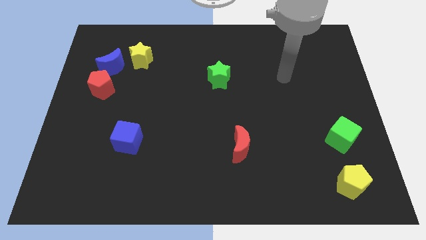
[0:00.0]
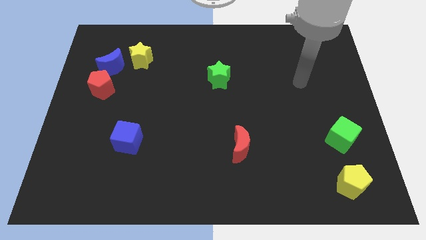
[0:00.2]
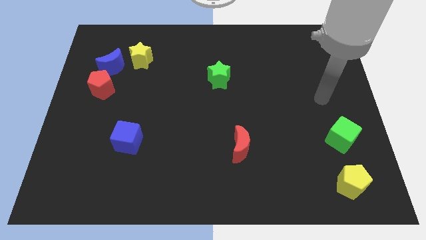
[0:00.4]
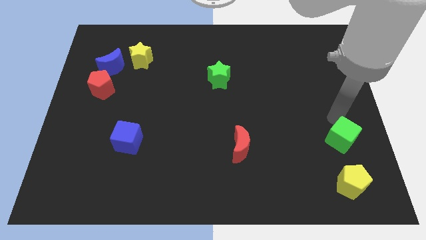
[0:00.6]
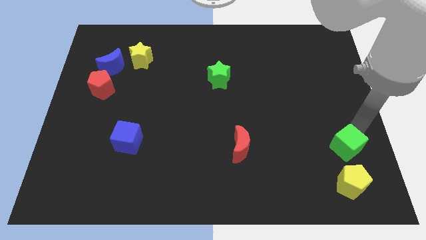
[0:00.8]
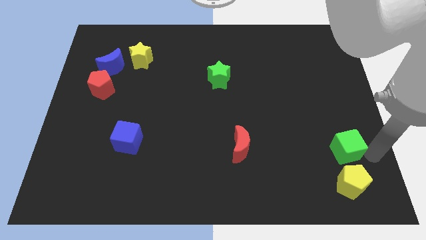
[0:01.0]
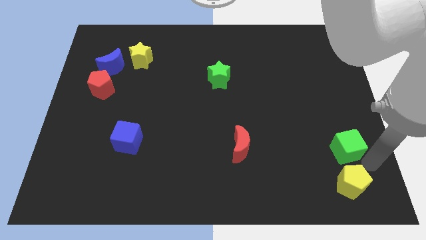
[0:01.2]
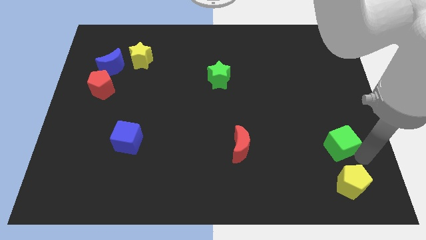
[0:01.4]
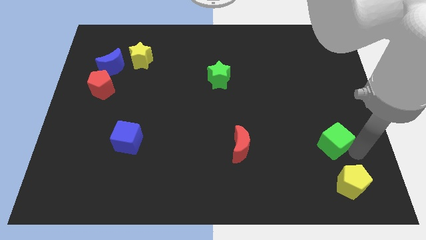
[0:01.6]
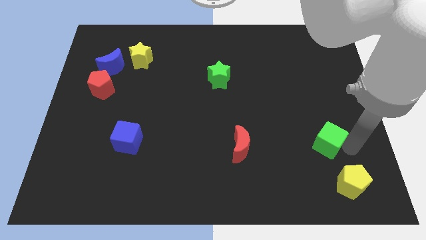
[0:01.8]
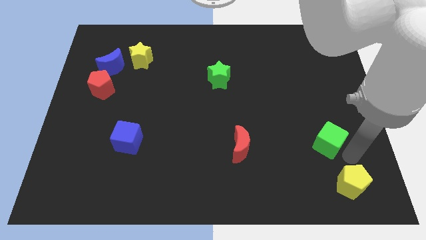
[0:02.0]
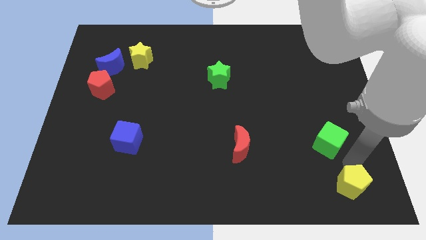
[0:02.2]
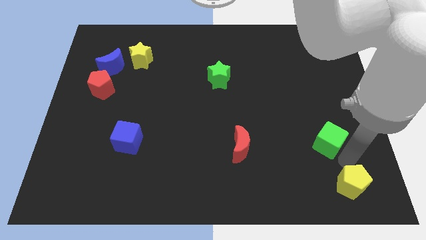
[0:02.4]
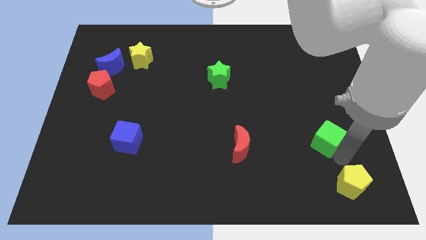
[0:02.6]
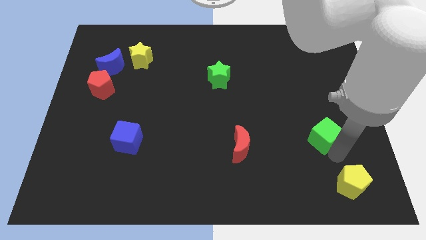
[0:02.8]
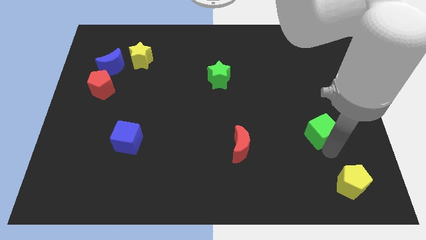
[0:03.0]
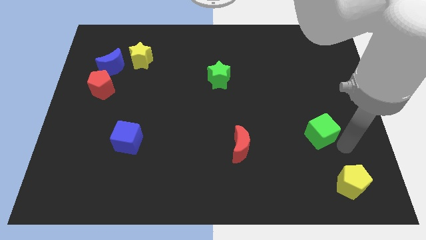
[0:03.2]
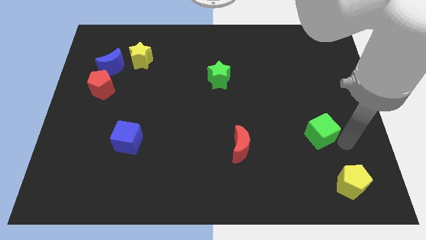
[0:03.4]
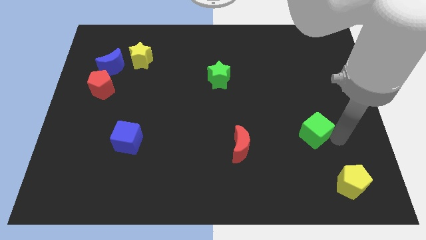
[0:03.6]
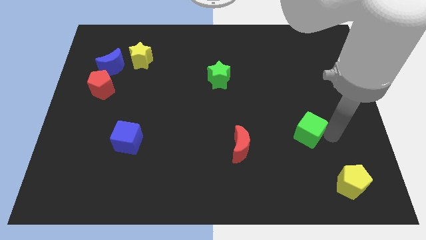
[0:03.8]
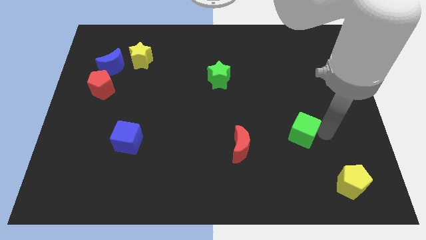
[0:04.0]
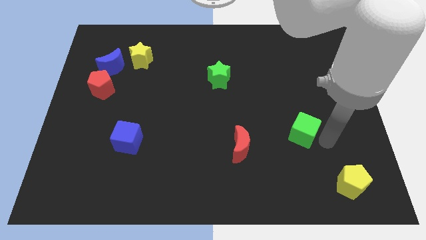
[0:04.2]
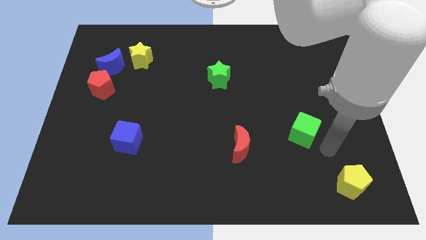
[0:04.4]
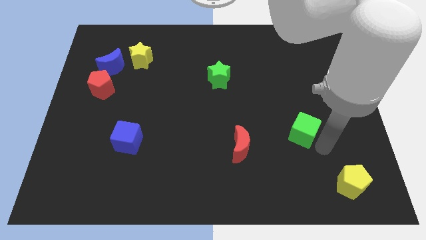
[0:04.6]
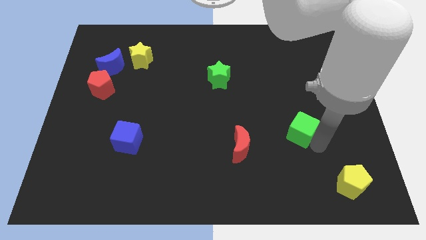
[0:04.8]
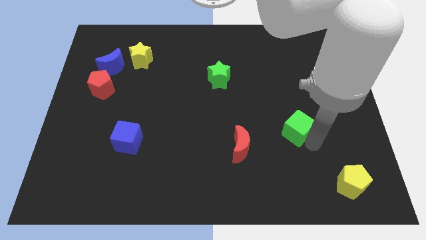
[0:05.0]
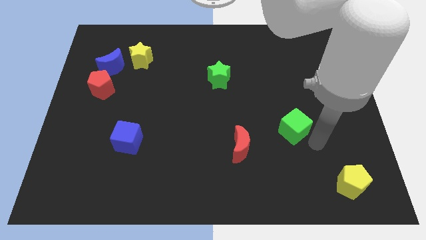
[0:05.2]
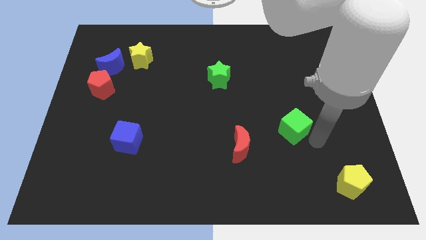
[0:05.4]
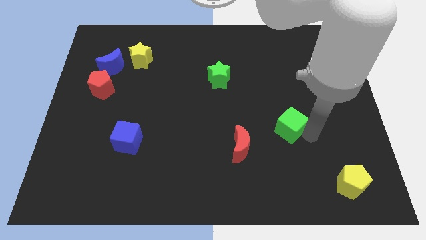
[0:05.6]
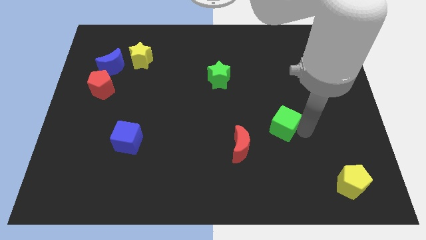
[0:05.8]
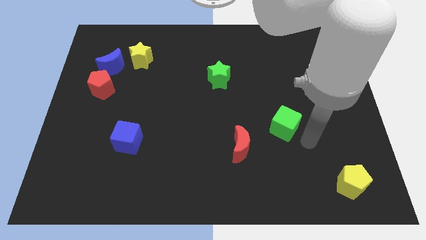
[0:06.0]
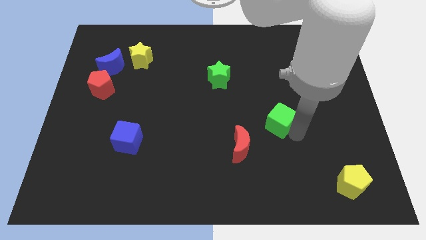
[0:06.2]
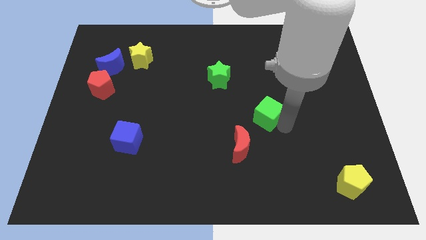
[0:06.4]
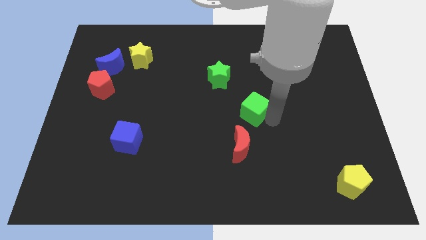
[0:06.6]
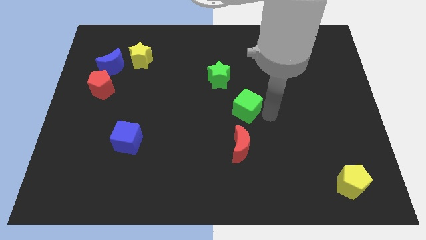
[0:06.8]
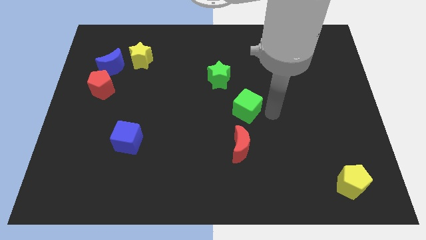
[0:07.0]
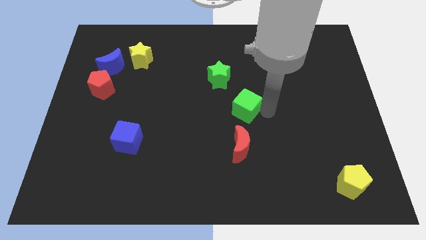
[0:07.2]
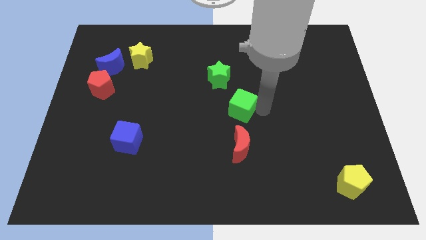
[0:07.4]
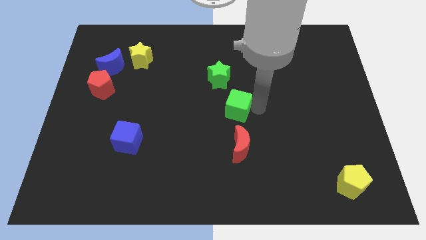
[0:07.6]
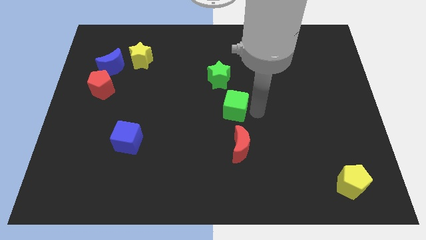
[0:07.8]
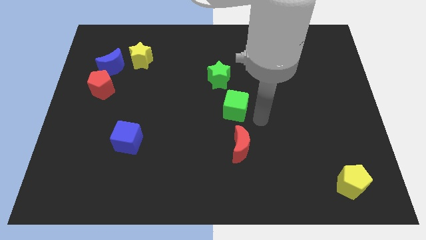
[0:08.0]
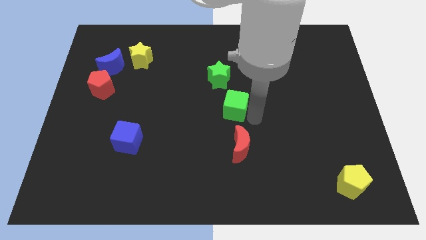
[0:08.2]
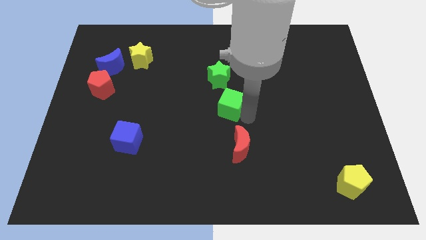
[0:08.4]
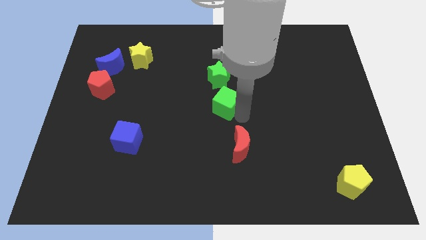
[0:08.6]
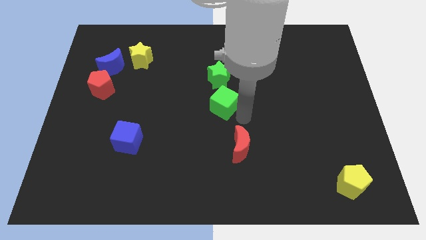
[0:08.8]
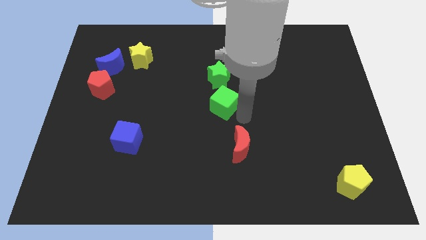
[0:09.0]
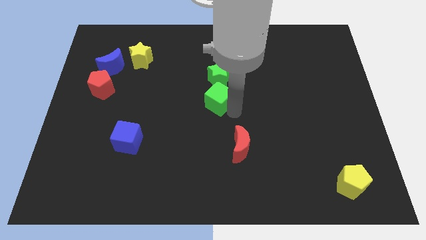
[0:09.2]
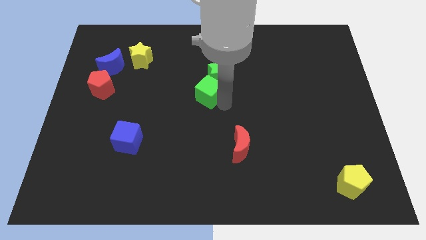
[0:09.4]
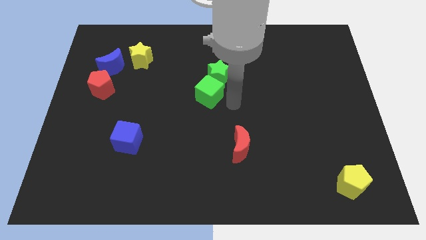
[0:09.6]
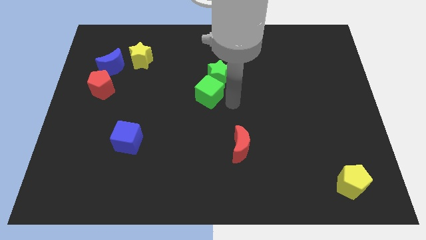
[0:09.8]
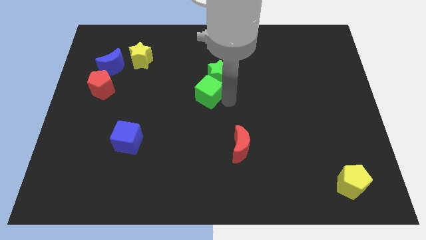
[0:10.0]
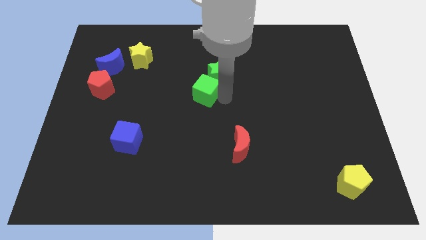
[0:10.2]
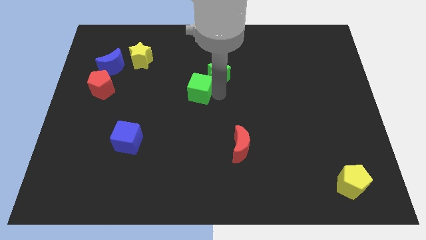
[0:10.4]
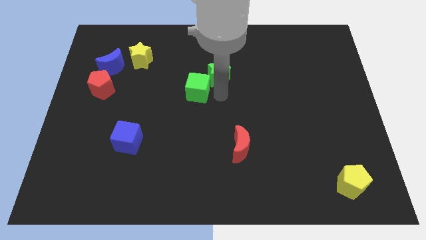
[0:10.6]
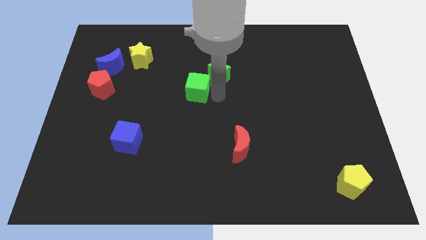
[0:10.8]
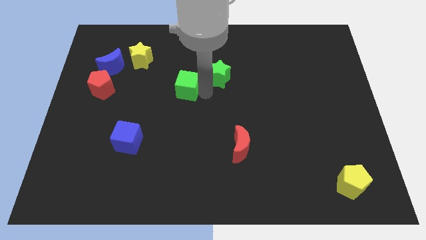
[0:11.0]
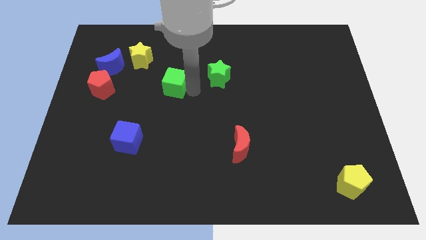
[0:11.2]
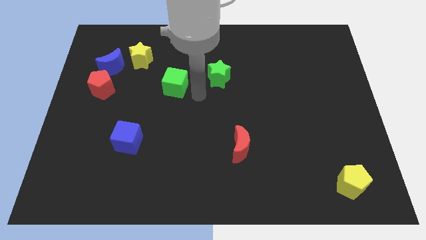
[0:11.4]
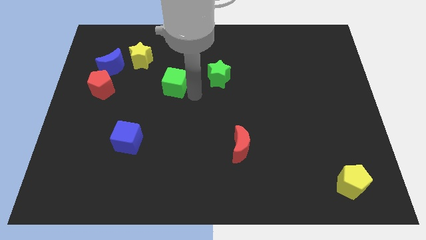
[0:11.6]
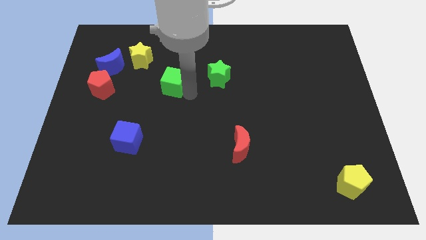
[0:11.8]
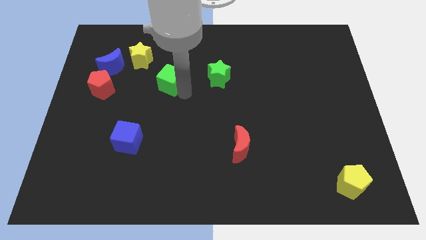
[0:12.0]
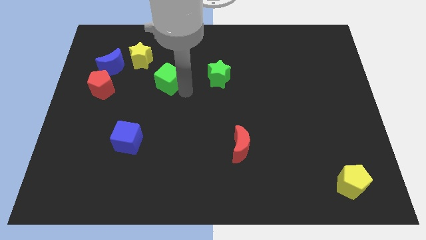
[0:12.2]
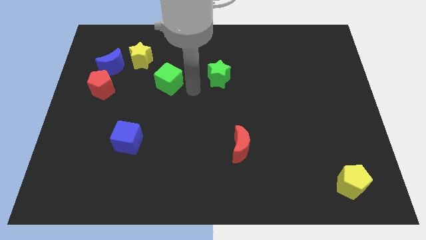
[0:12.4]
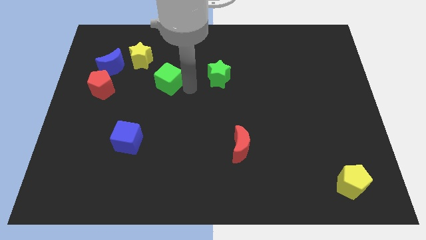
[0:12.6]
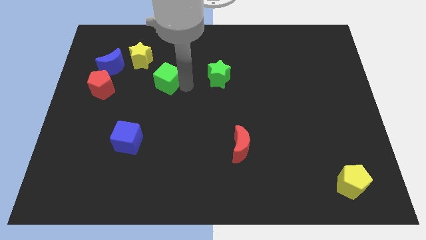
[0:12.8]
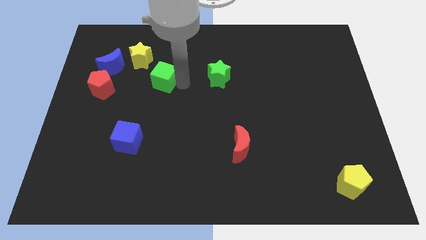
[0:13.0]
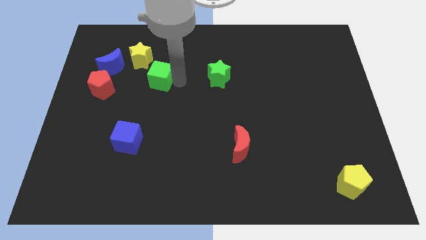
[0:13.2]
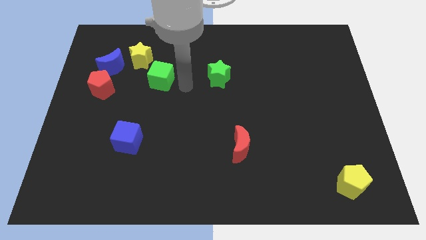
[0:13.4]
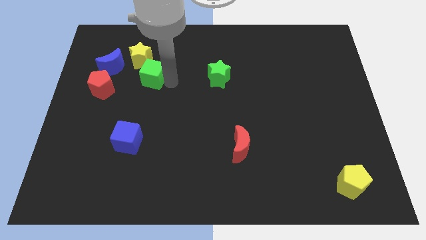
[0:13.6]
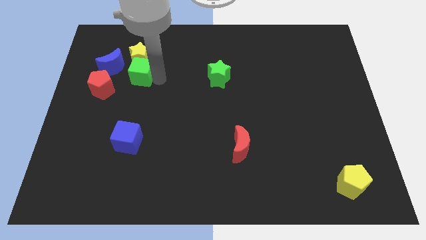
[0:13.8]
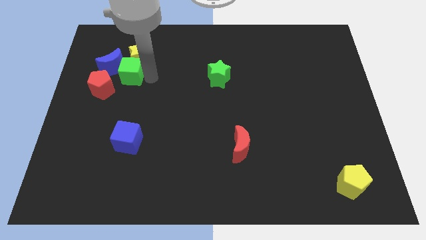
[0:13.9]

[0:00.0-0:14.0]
put the green cube next to the blue moon

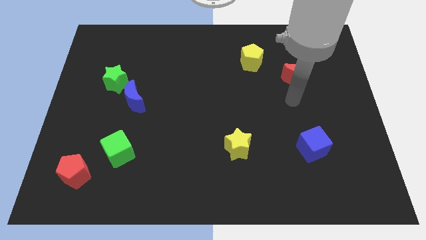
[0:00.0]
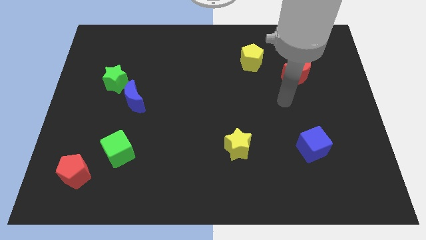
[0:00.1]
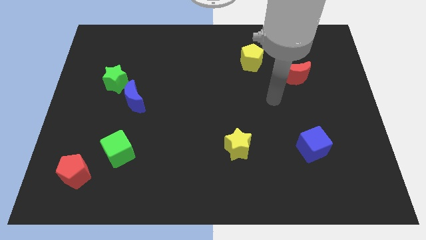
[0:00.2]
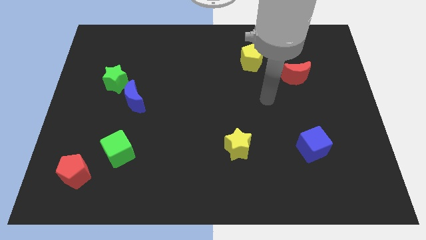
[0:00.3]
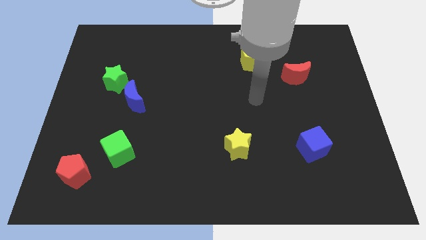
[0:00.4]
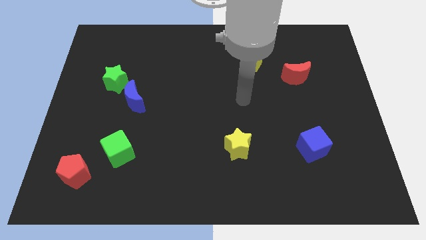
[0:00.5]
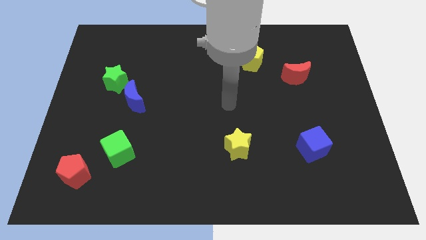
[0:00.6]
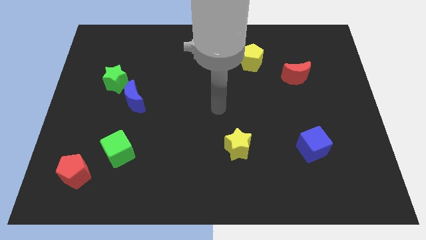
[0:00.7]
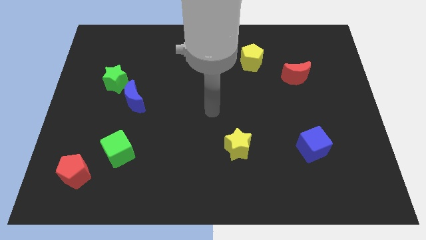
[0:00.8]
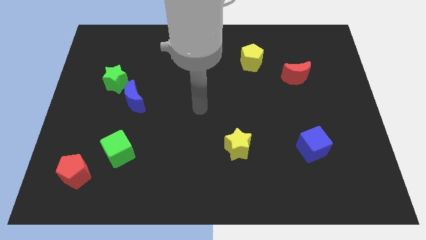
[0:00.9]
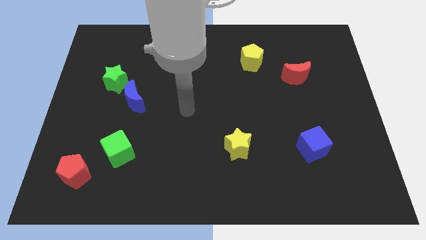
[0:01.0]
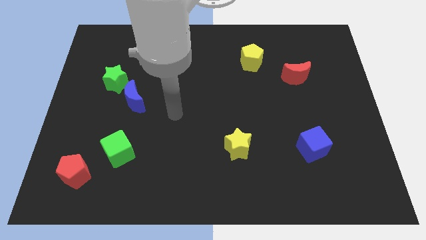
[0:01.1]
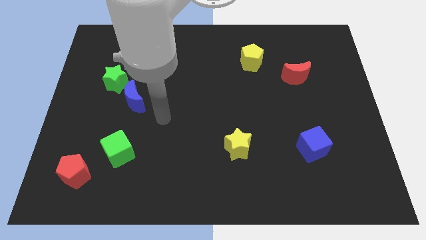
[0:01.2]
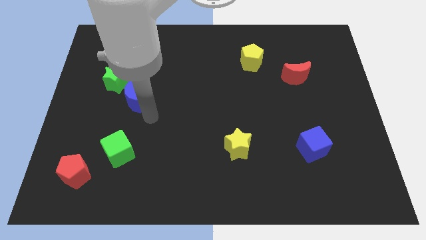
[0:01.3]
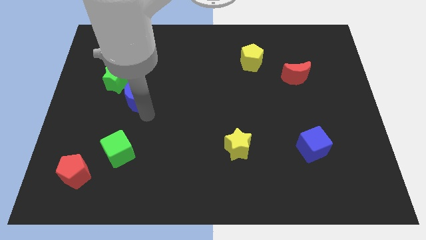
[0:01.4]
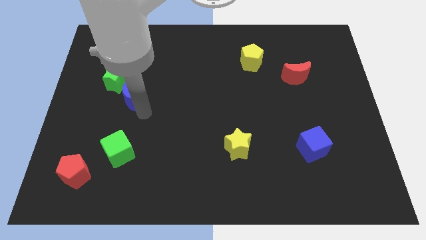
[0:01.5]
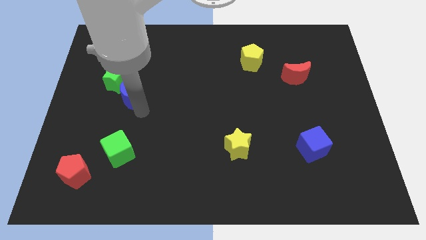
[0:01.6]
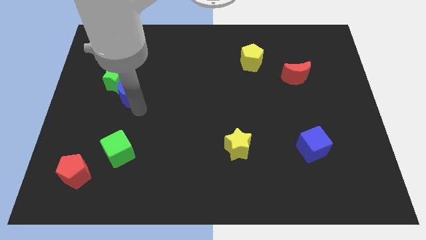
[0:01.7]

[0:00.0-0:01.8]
push the blue moon towards the green star
